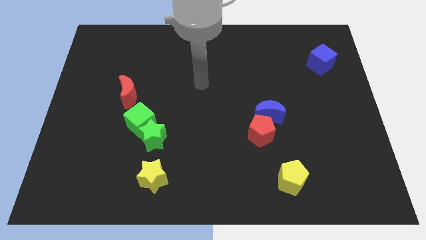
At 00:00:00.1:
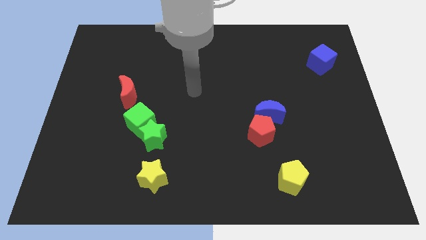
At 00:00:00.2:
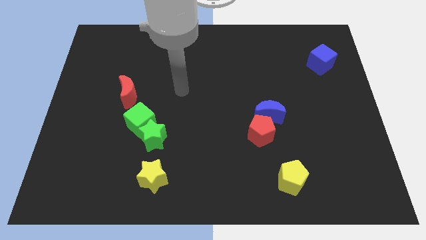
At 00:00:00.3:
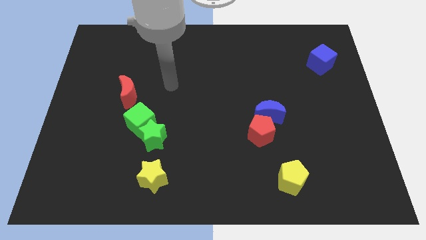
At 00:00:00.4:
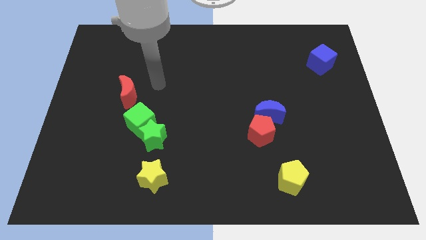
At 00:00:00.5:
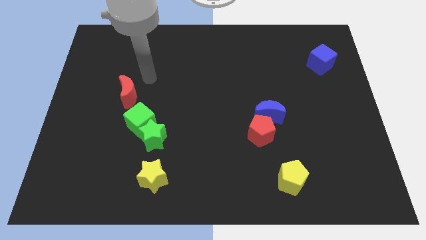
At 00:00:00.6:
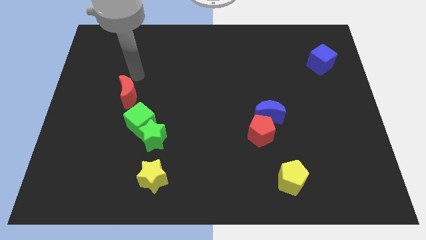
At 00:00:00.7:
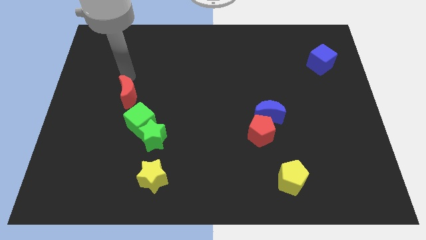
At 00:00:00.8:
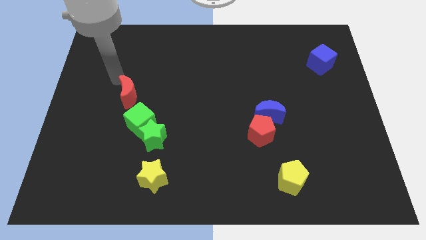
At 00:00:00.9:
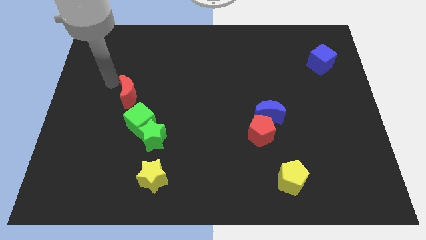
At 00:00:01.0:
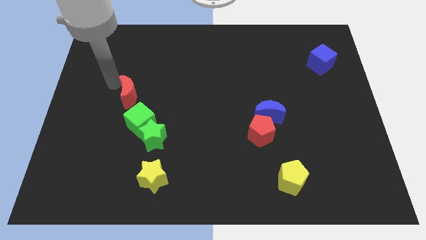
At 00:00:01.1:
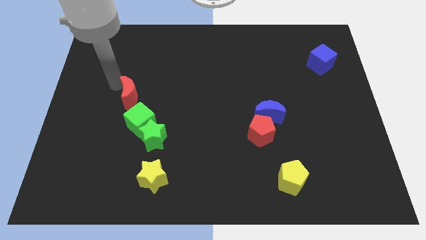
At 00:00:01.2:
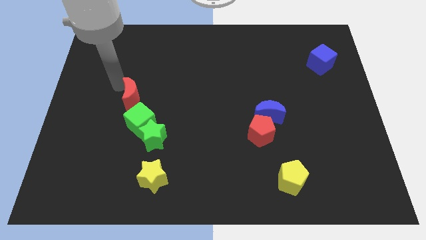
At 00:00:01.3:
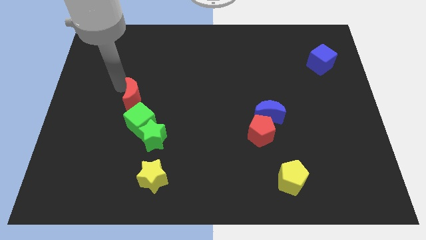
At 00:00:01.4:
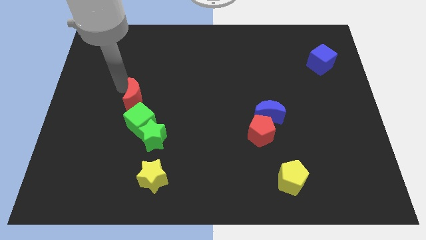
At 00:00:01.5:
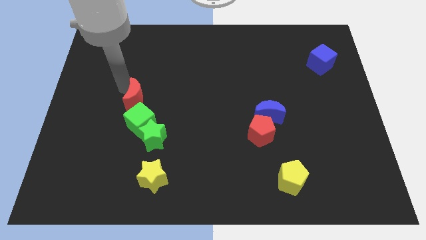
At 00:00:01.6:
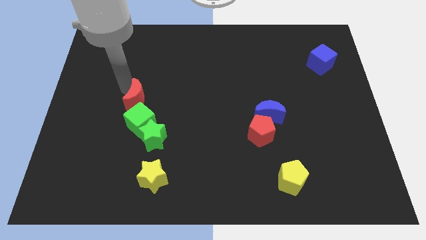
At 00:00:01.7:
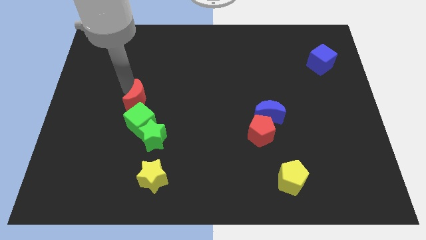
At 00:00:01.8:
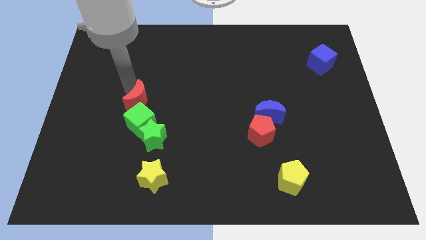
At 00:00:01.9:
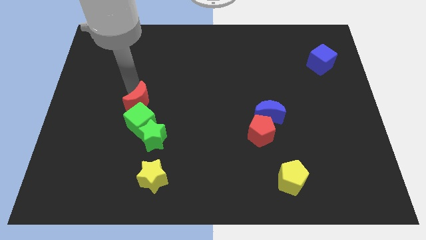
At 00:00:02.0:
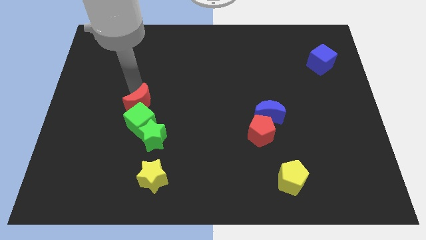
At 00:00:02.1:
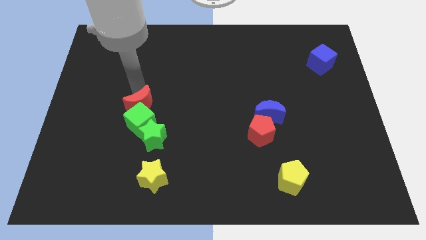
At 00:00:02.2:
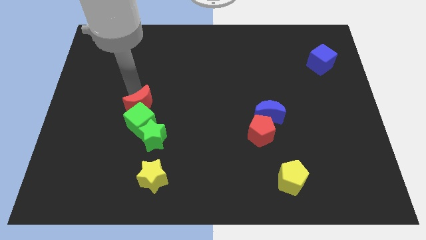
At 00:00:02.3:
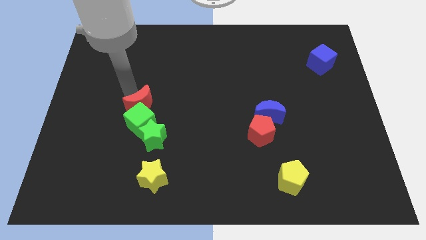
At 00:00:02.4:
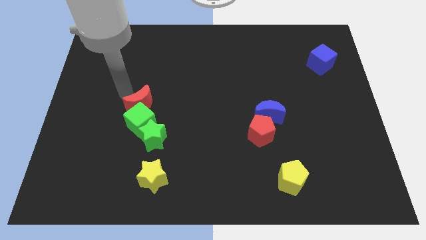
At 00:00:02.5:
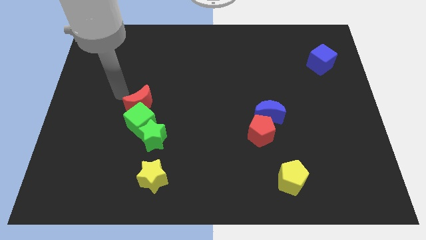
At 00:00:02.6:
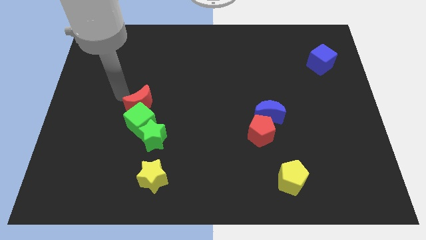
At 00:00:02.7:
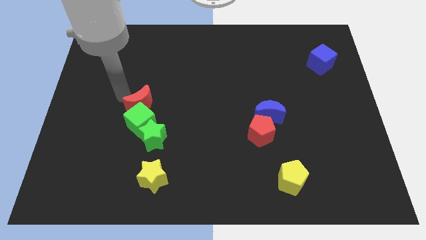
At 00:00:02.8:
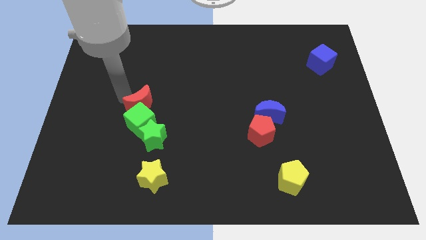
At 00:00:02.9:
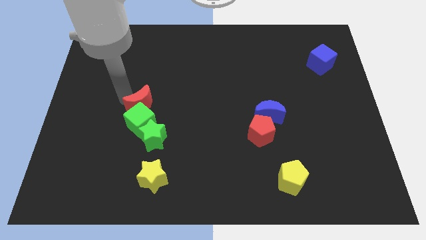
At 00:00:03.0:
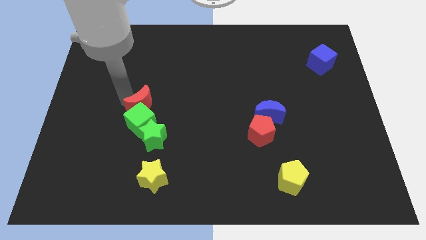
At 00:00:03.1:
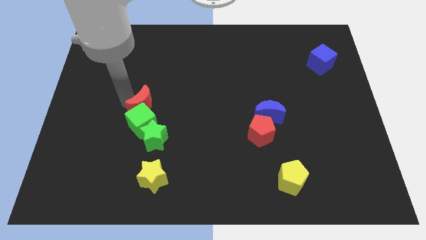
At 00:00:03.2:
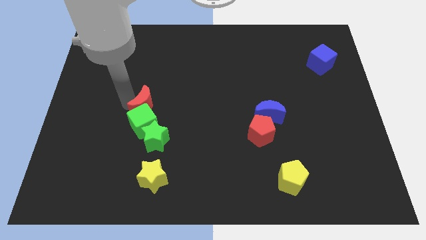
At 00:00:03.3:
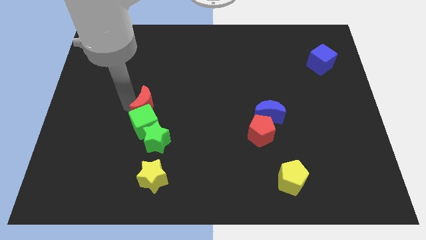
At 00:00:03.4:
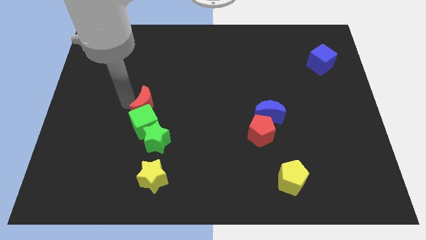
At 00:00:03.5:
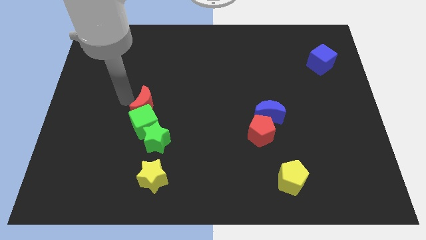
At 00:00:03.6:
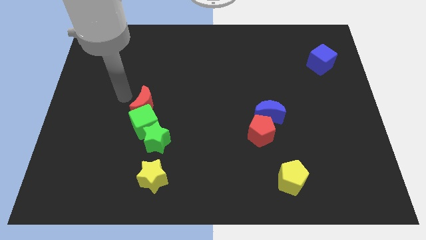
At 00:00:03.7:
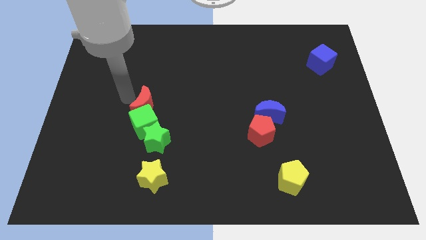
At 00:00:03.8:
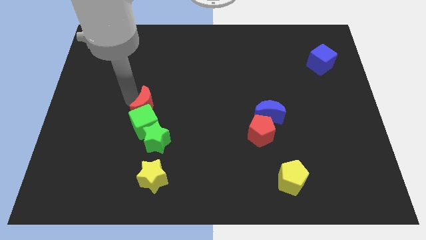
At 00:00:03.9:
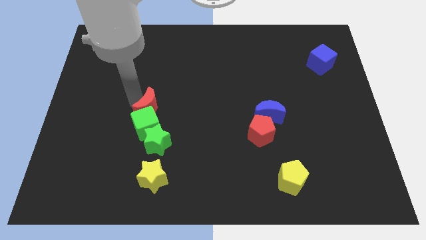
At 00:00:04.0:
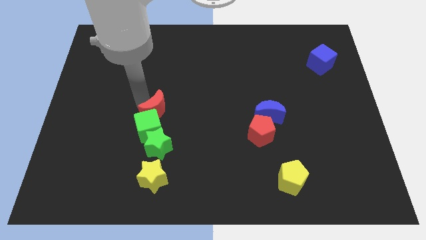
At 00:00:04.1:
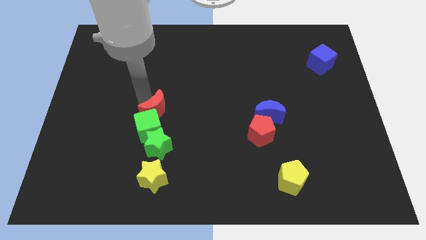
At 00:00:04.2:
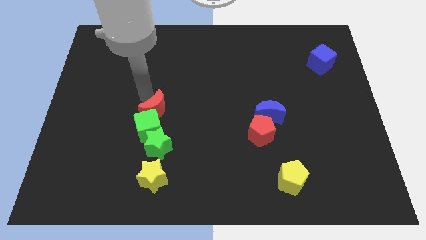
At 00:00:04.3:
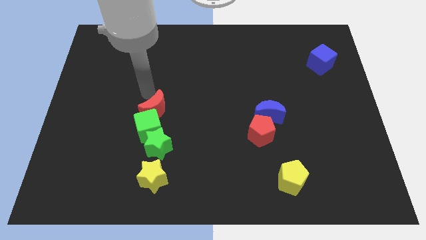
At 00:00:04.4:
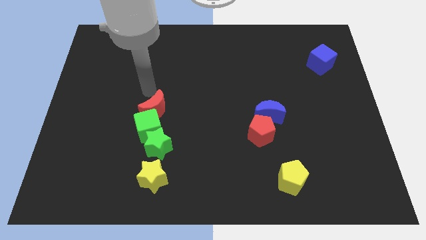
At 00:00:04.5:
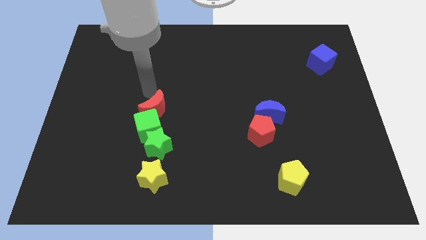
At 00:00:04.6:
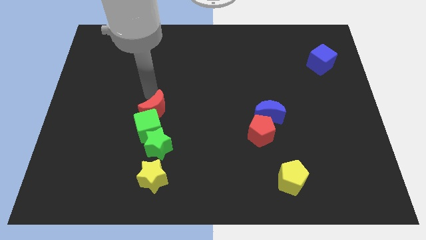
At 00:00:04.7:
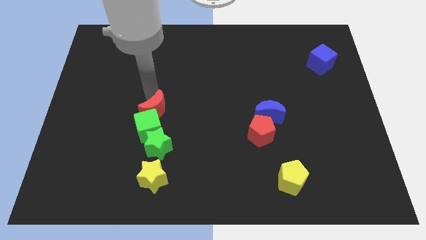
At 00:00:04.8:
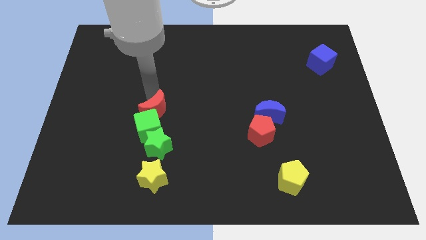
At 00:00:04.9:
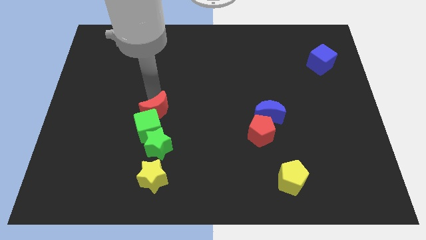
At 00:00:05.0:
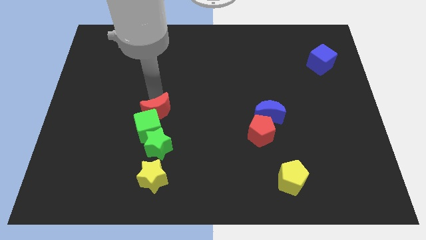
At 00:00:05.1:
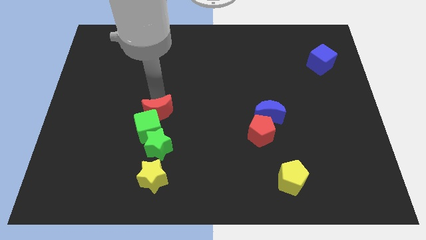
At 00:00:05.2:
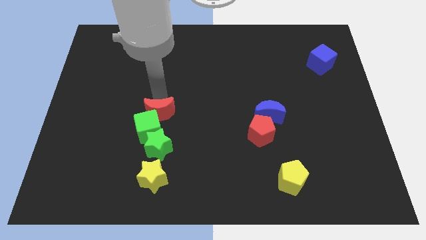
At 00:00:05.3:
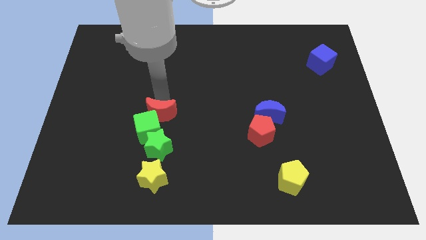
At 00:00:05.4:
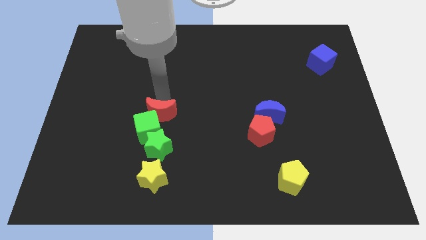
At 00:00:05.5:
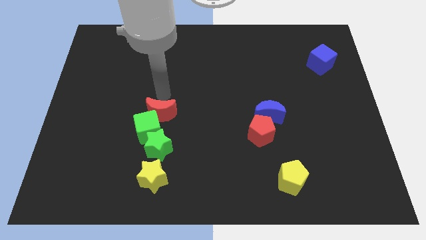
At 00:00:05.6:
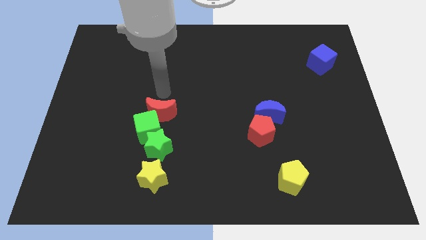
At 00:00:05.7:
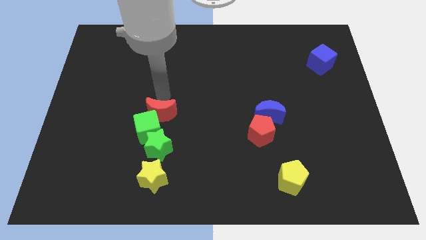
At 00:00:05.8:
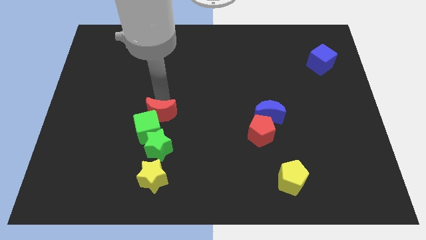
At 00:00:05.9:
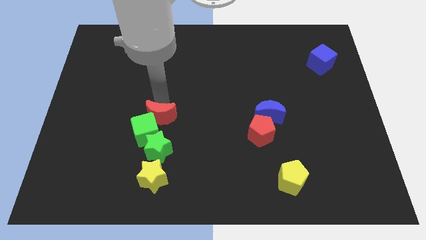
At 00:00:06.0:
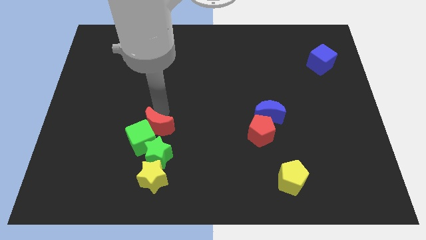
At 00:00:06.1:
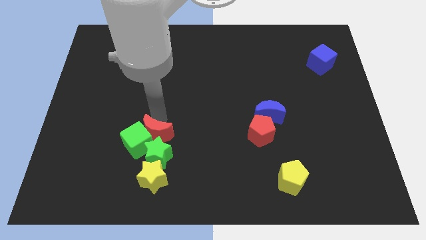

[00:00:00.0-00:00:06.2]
push the red moon towards the green star

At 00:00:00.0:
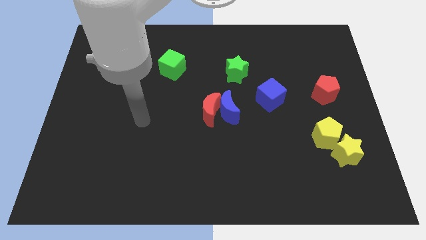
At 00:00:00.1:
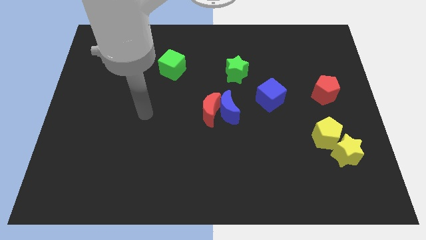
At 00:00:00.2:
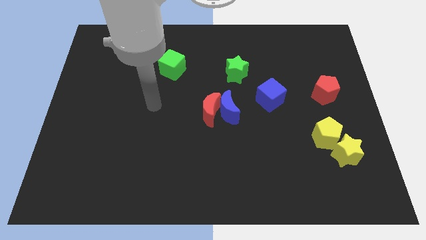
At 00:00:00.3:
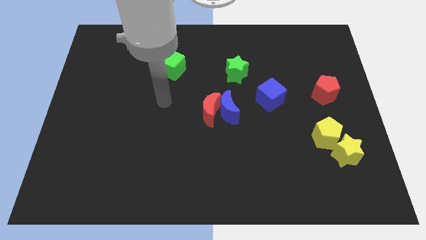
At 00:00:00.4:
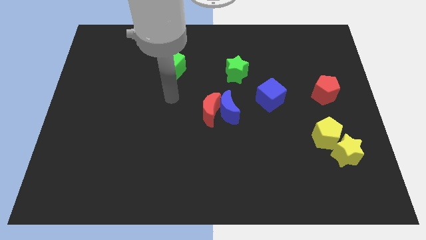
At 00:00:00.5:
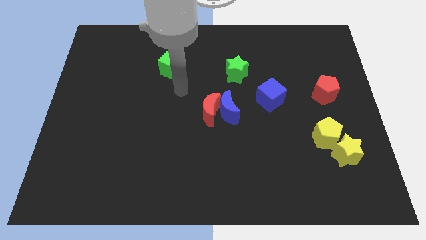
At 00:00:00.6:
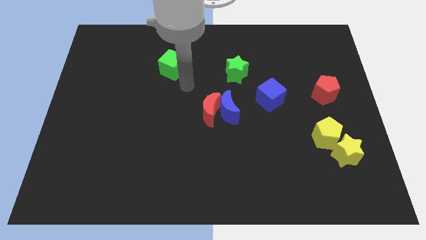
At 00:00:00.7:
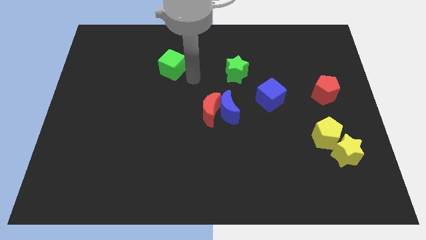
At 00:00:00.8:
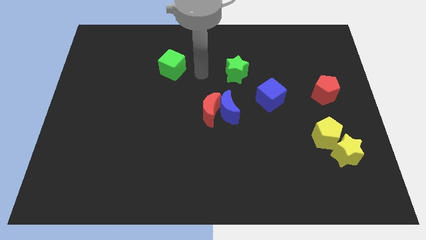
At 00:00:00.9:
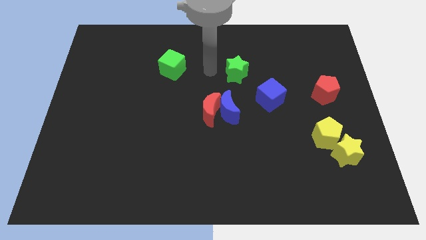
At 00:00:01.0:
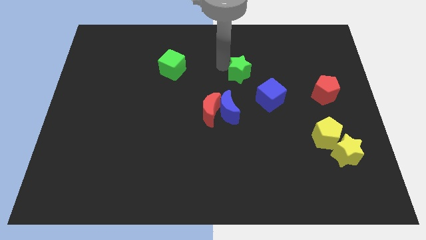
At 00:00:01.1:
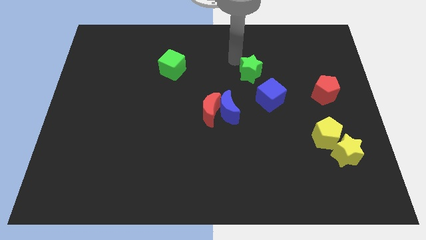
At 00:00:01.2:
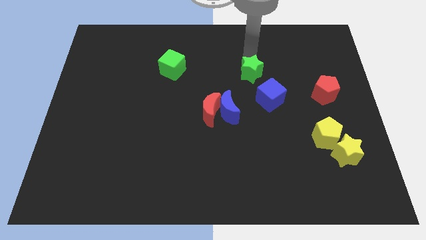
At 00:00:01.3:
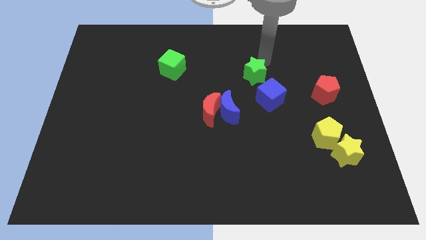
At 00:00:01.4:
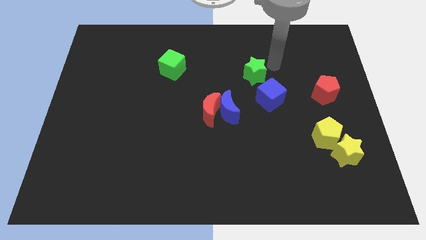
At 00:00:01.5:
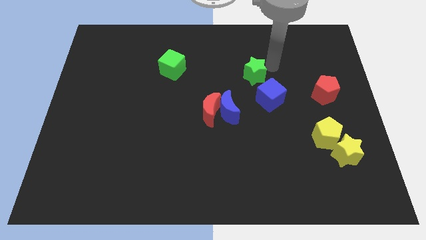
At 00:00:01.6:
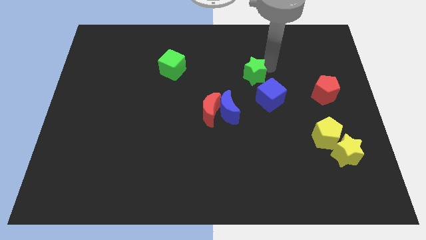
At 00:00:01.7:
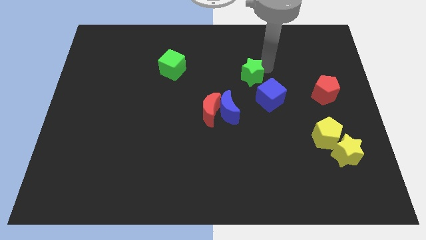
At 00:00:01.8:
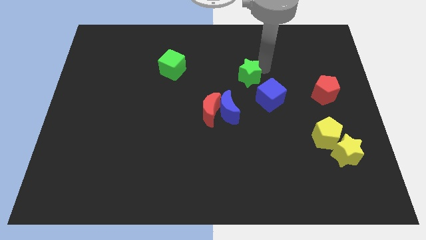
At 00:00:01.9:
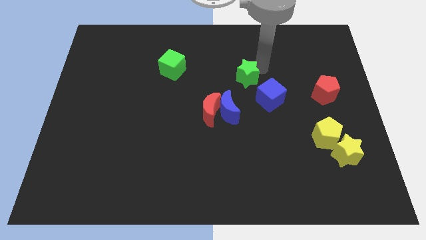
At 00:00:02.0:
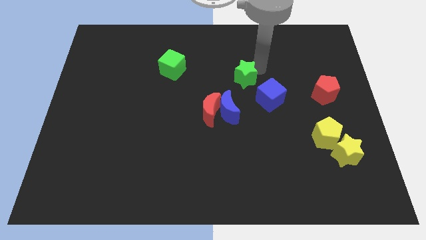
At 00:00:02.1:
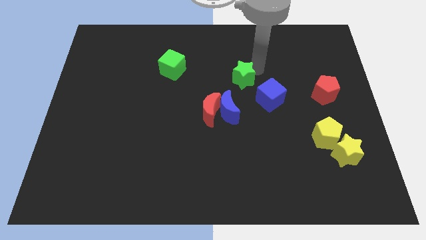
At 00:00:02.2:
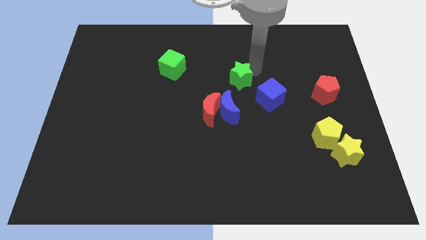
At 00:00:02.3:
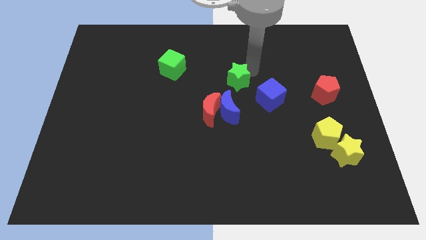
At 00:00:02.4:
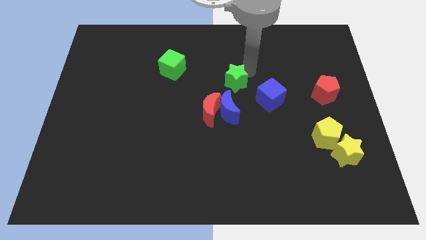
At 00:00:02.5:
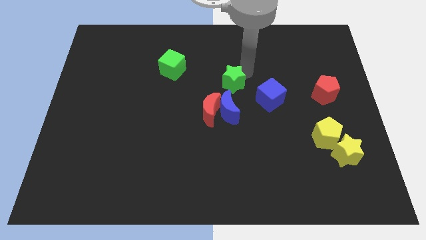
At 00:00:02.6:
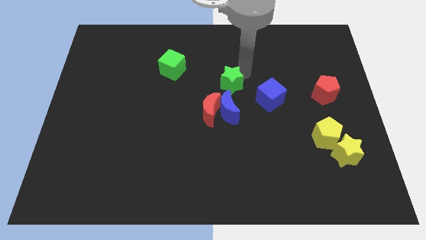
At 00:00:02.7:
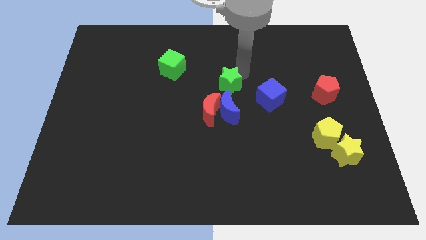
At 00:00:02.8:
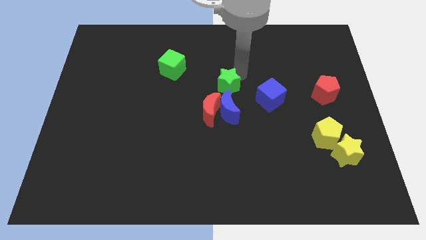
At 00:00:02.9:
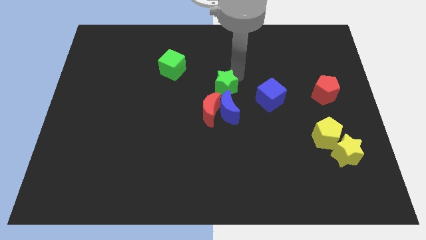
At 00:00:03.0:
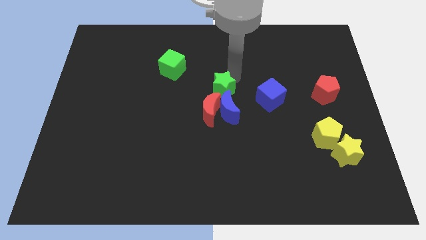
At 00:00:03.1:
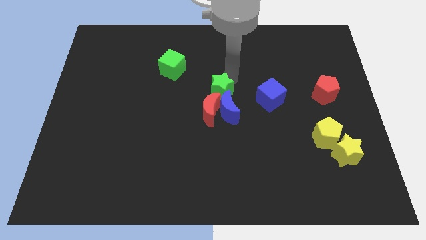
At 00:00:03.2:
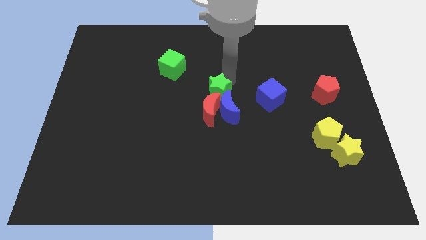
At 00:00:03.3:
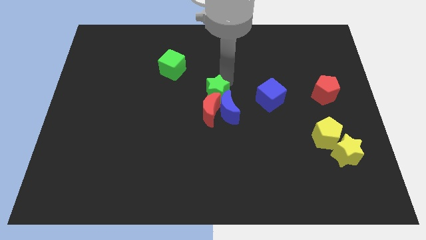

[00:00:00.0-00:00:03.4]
put the green star close to the red moon
